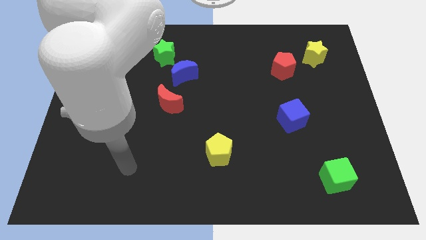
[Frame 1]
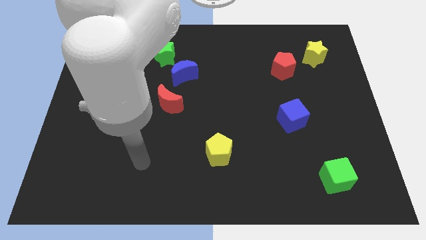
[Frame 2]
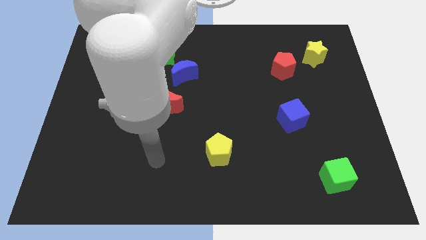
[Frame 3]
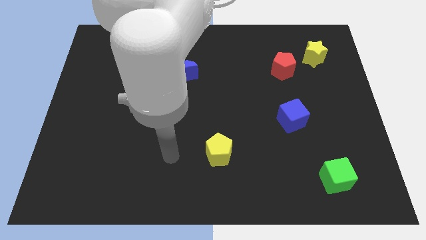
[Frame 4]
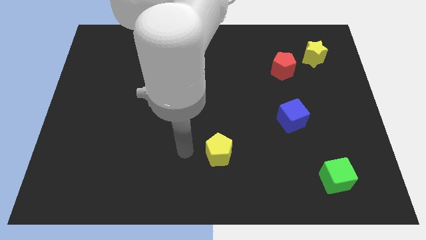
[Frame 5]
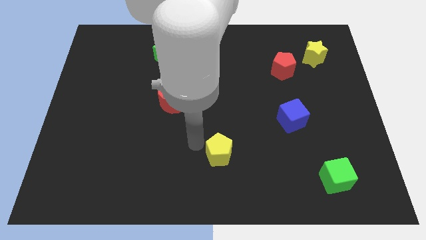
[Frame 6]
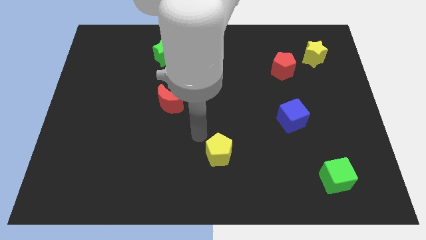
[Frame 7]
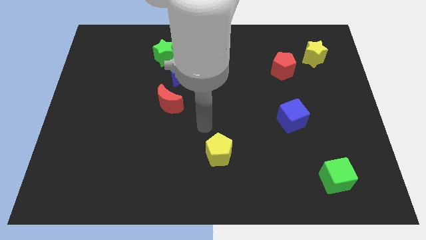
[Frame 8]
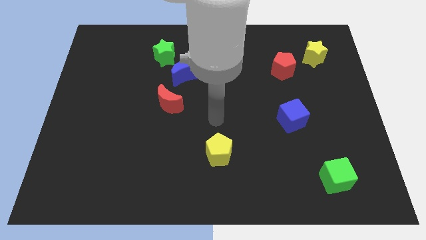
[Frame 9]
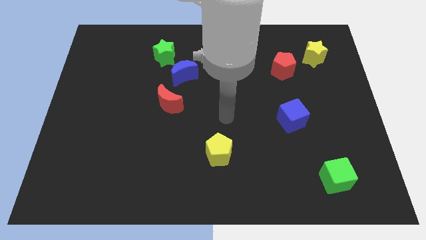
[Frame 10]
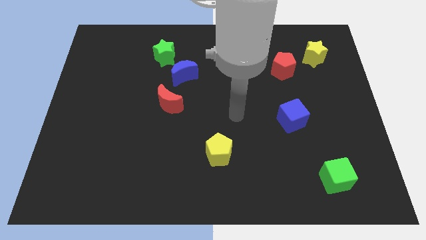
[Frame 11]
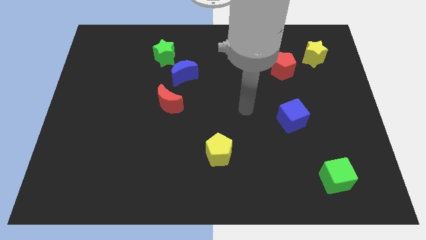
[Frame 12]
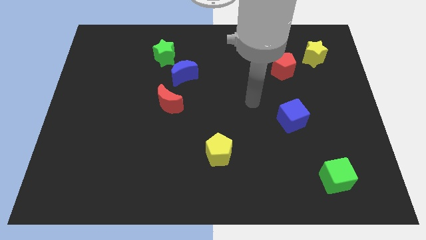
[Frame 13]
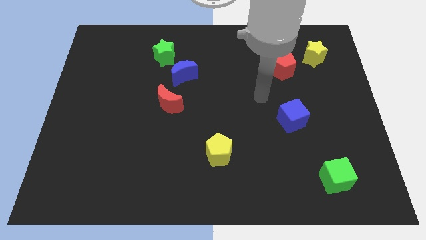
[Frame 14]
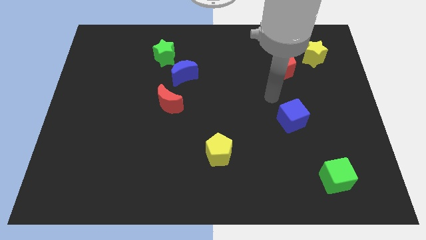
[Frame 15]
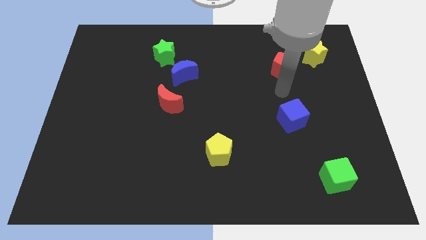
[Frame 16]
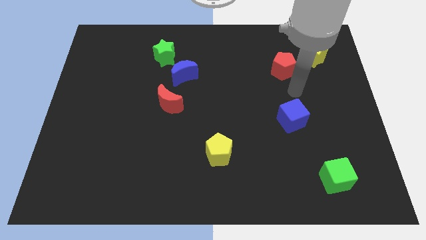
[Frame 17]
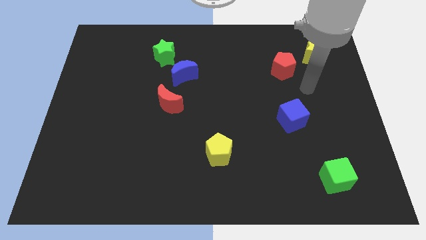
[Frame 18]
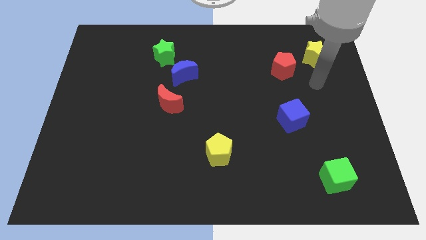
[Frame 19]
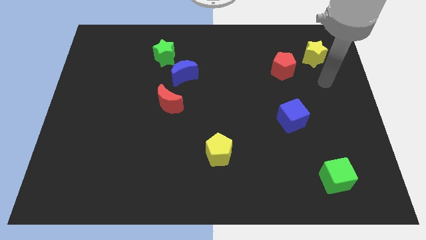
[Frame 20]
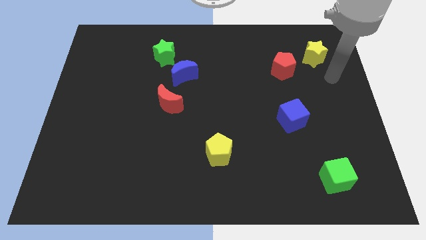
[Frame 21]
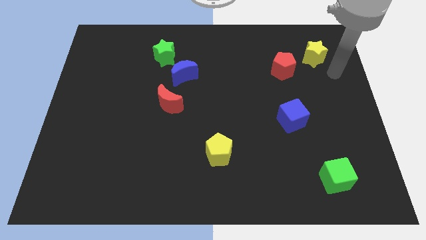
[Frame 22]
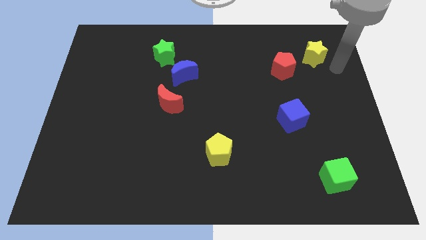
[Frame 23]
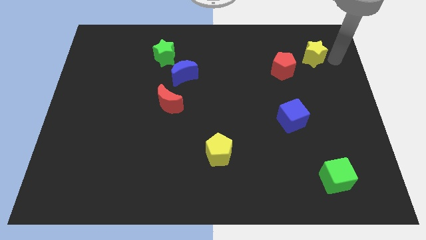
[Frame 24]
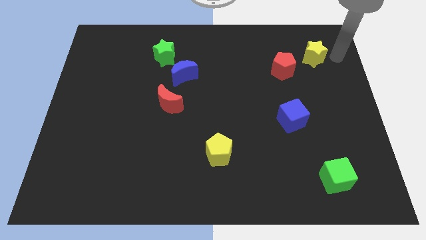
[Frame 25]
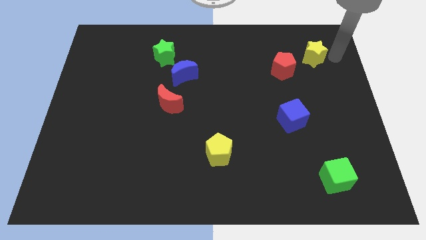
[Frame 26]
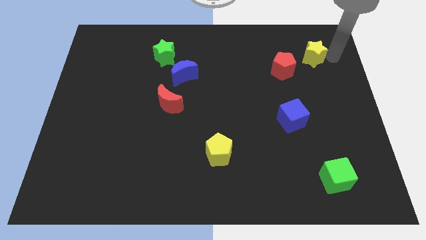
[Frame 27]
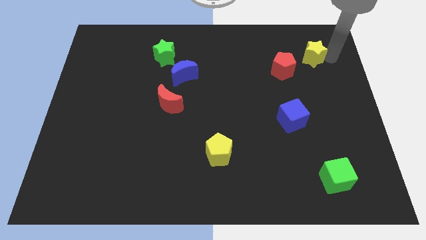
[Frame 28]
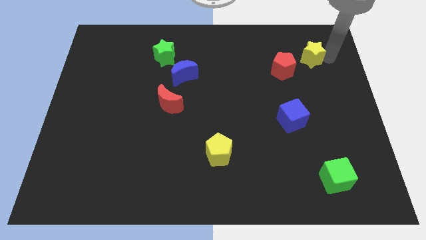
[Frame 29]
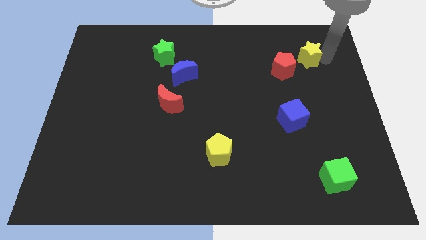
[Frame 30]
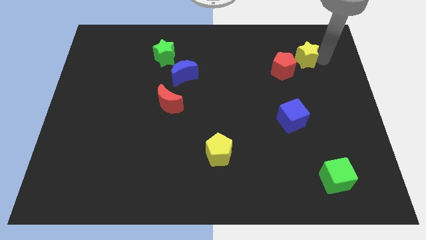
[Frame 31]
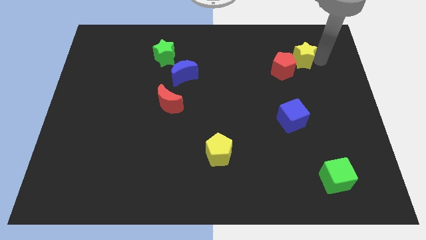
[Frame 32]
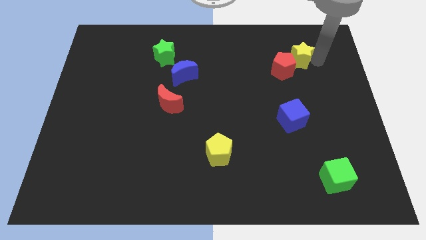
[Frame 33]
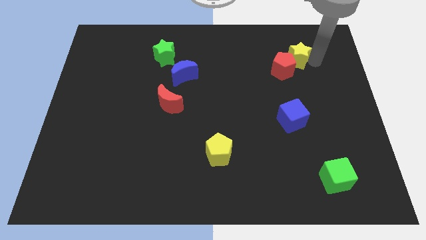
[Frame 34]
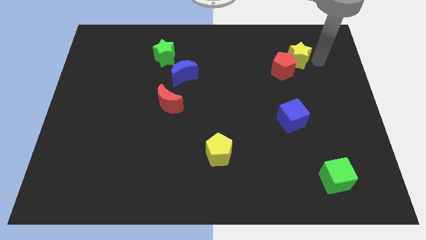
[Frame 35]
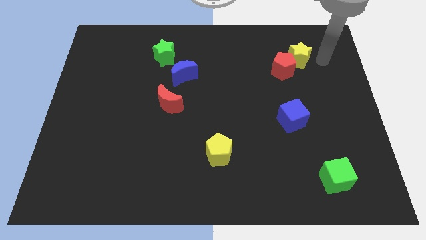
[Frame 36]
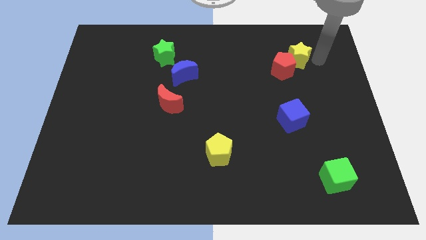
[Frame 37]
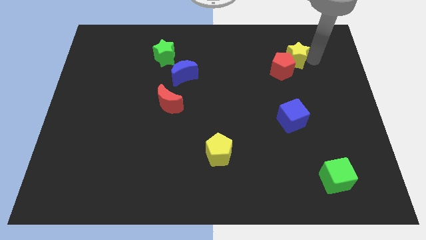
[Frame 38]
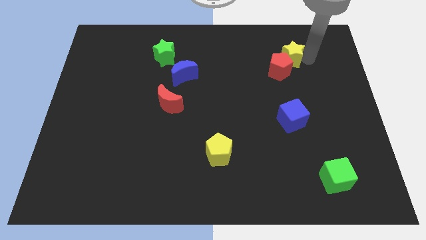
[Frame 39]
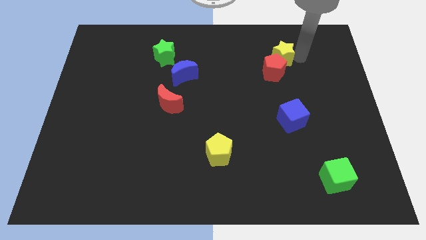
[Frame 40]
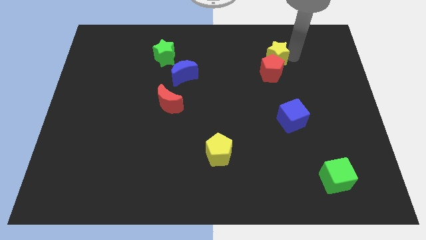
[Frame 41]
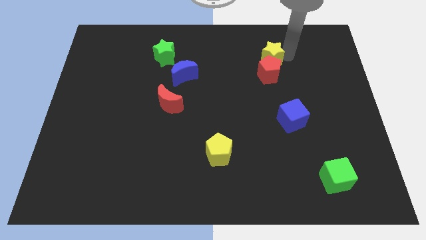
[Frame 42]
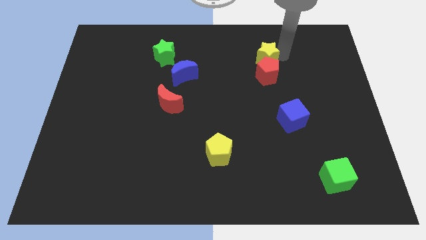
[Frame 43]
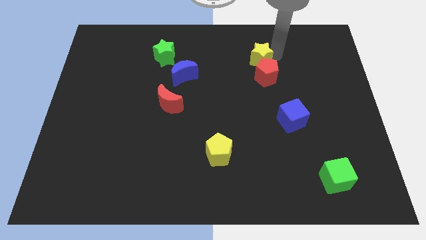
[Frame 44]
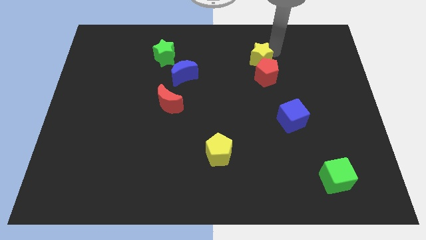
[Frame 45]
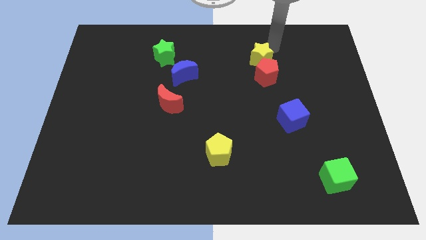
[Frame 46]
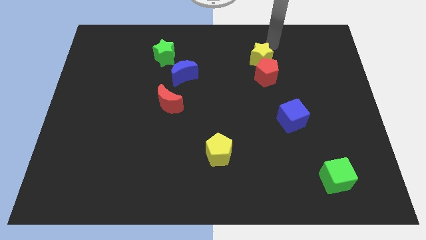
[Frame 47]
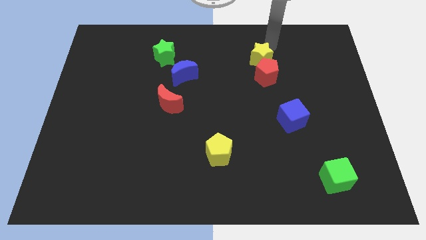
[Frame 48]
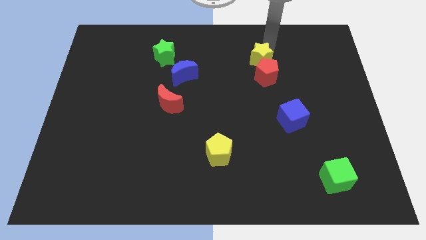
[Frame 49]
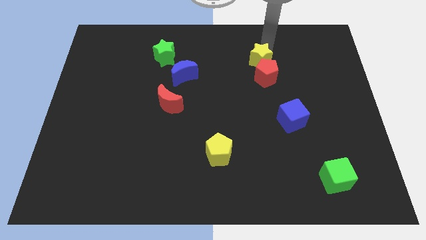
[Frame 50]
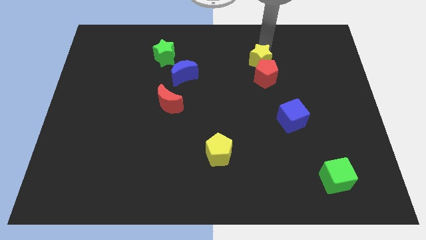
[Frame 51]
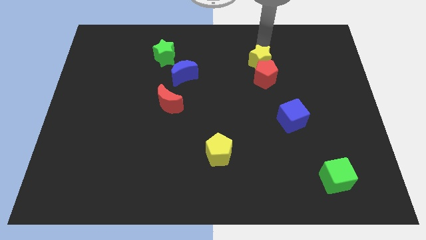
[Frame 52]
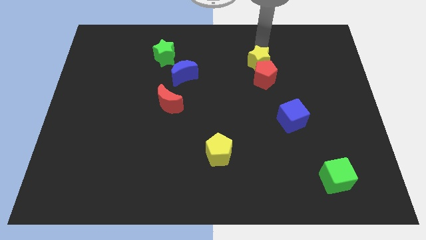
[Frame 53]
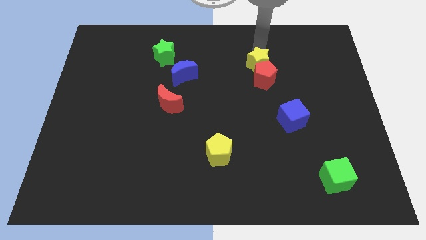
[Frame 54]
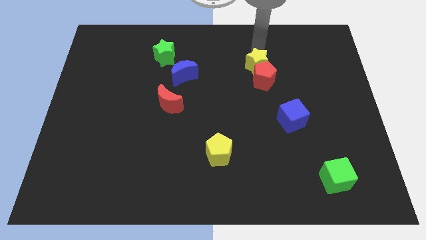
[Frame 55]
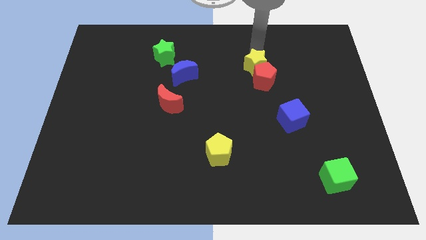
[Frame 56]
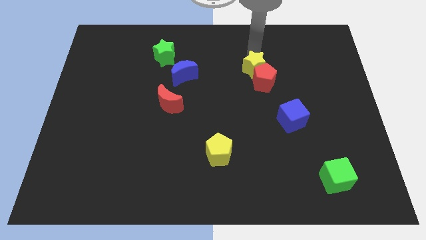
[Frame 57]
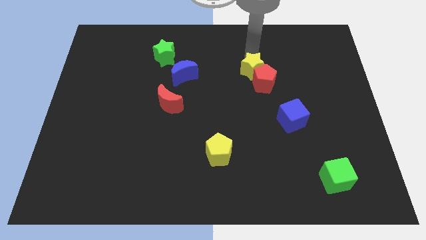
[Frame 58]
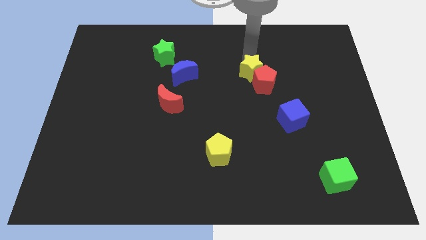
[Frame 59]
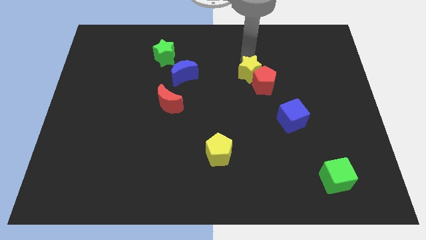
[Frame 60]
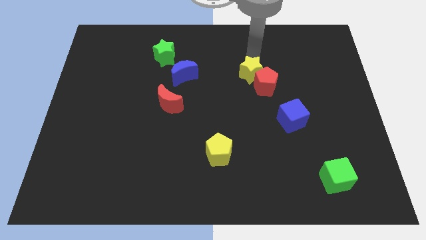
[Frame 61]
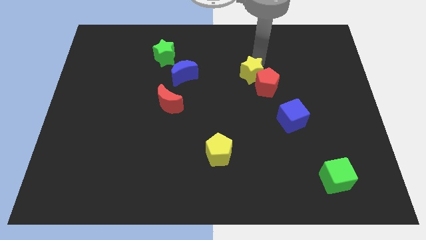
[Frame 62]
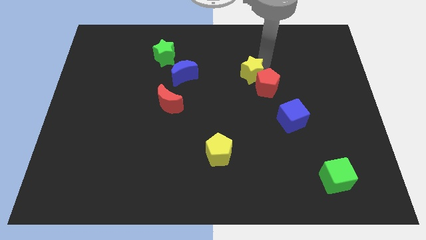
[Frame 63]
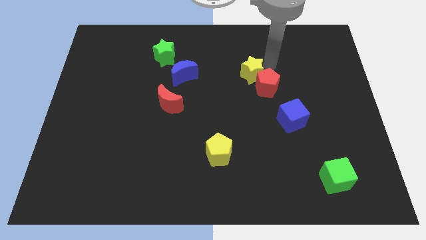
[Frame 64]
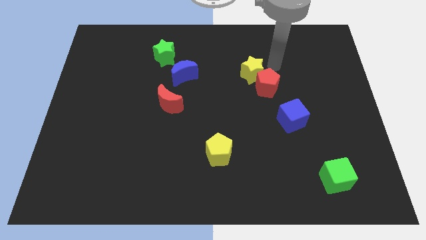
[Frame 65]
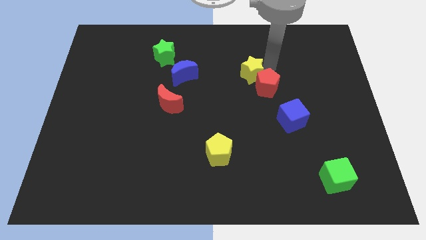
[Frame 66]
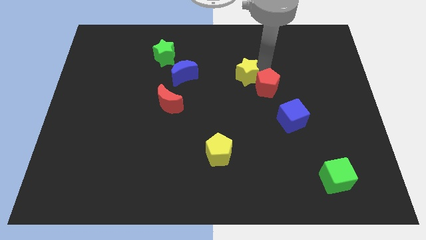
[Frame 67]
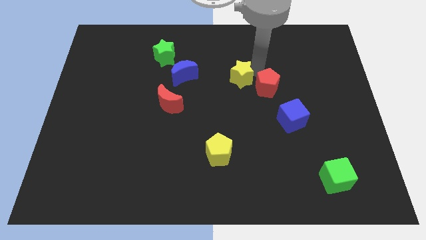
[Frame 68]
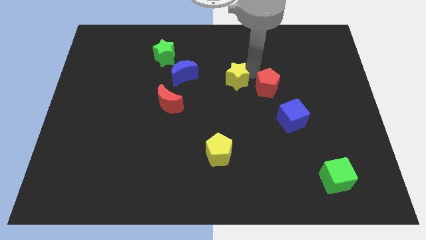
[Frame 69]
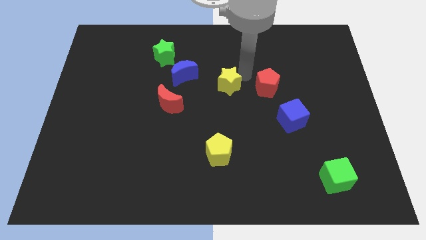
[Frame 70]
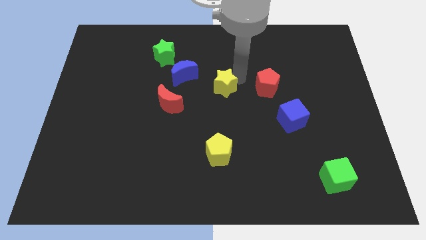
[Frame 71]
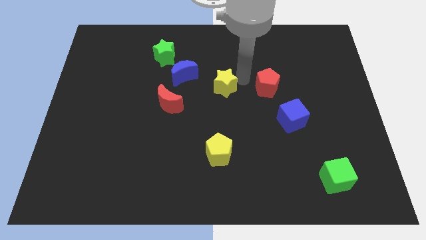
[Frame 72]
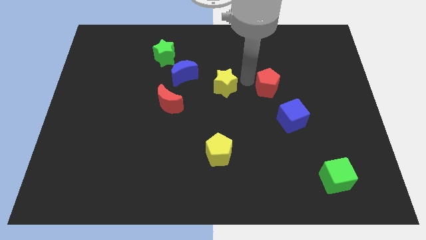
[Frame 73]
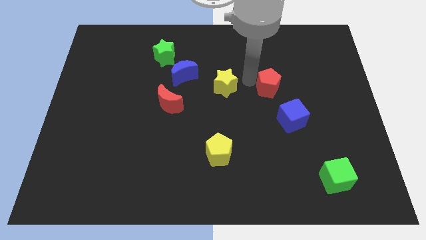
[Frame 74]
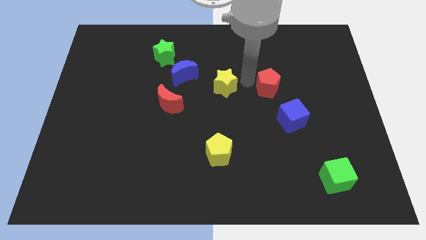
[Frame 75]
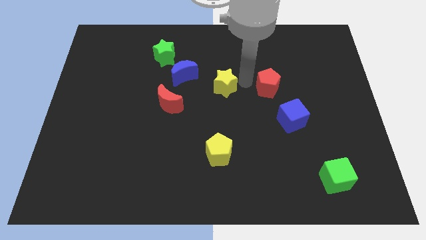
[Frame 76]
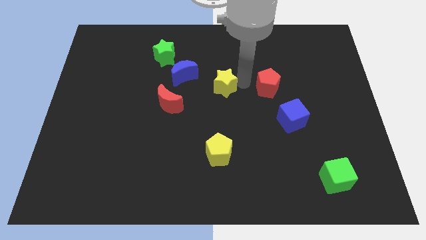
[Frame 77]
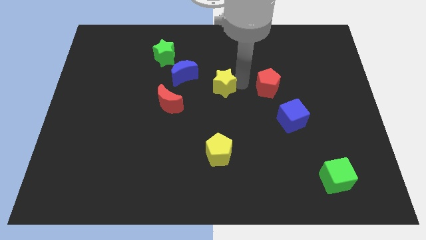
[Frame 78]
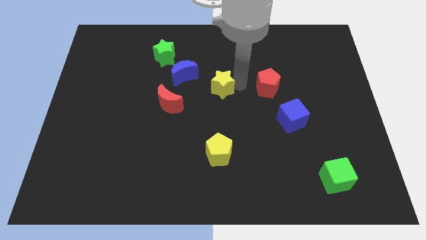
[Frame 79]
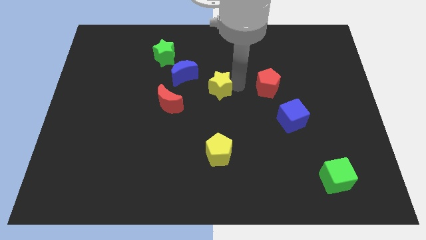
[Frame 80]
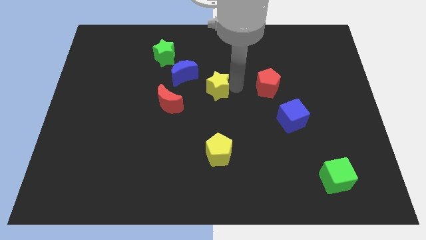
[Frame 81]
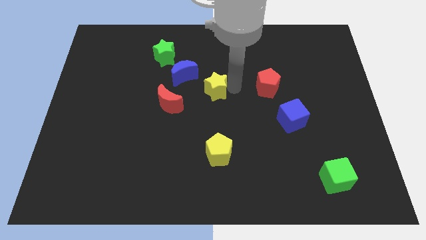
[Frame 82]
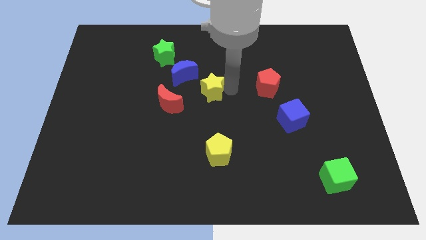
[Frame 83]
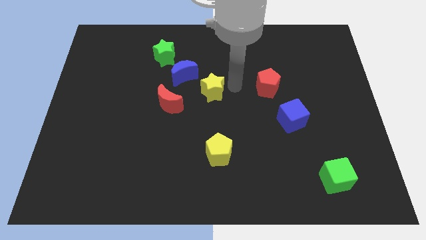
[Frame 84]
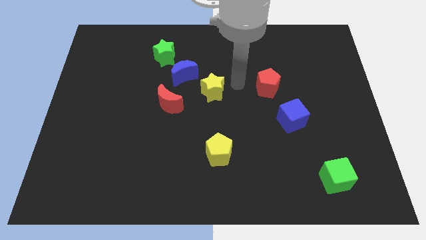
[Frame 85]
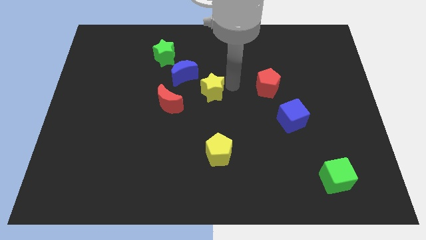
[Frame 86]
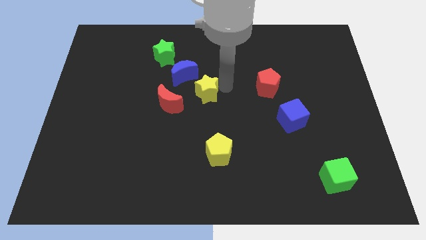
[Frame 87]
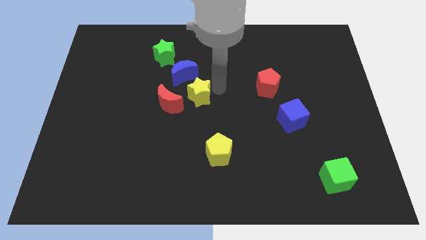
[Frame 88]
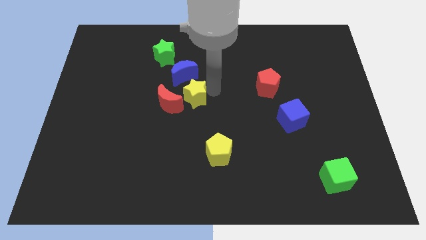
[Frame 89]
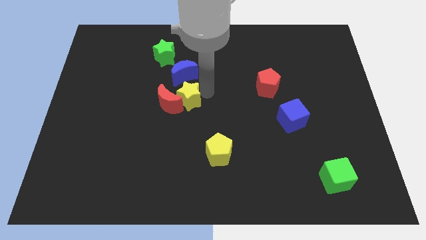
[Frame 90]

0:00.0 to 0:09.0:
push the yellow star to the red moon
